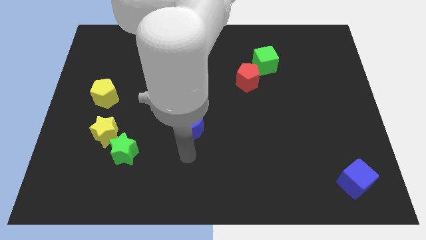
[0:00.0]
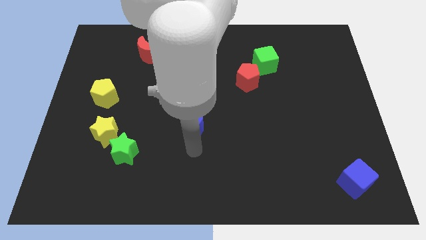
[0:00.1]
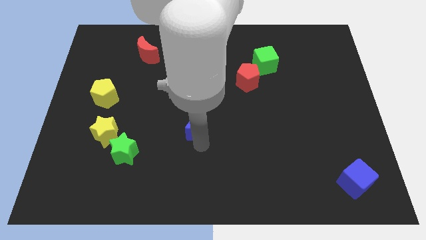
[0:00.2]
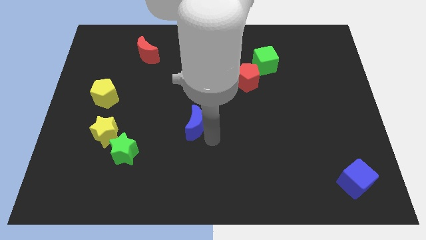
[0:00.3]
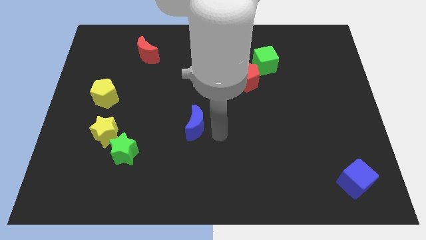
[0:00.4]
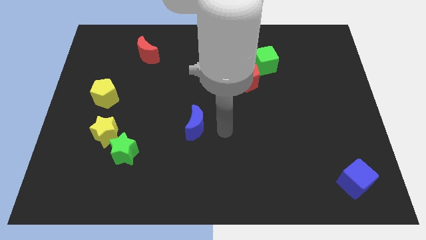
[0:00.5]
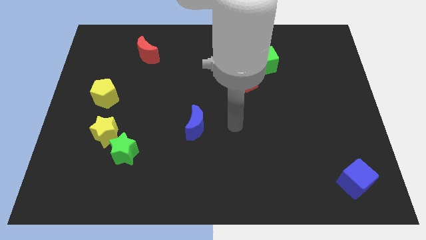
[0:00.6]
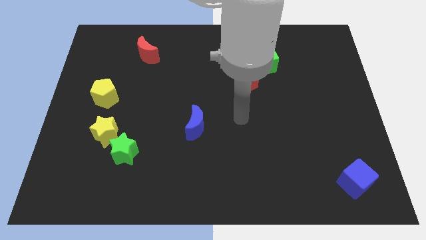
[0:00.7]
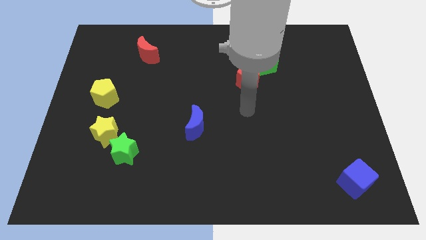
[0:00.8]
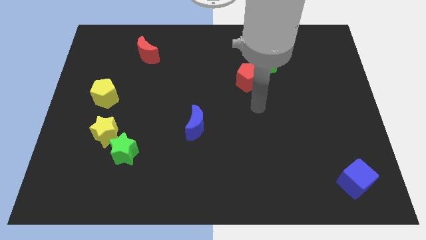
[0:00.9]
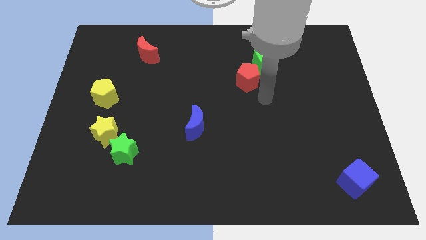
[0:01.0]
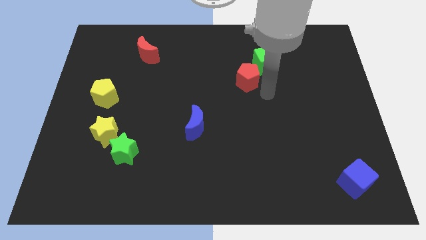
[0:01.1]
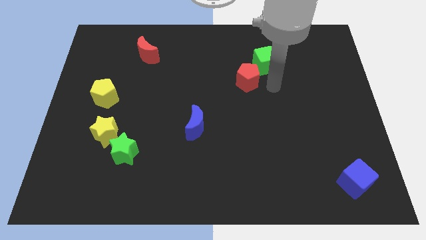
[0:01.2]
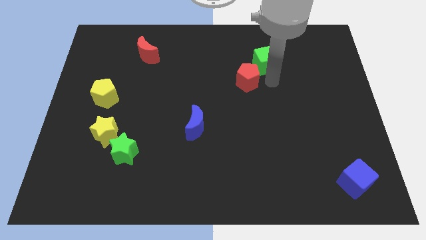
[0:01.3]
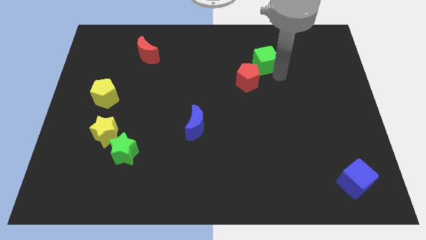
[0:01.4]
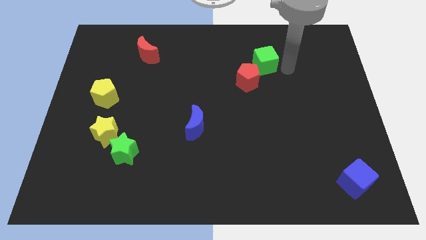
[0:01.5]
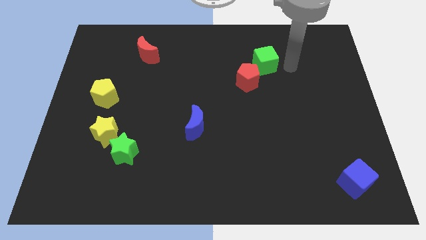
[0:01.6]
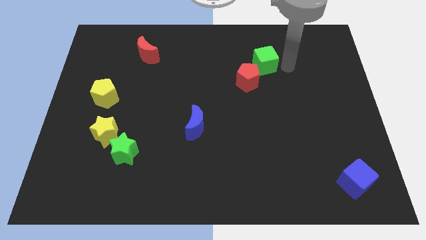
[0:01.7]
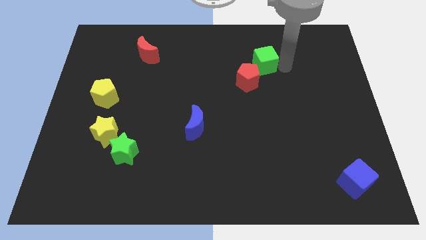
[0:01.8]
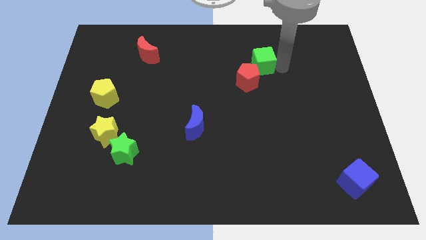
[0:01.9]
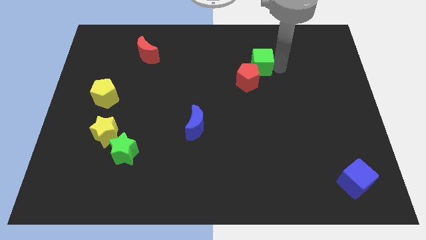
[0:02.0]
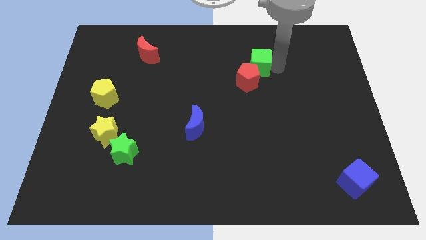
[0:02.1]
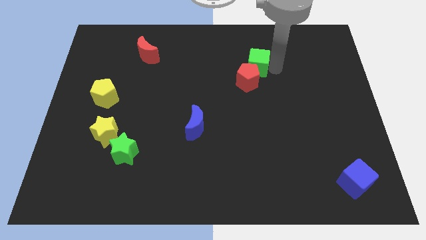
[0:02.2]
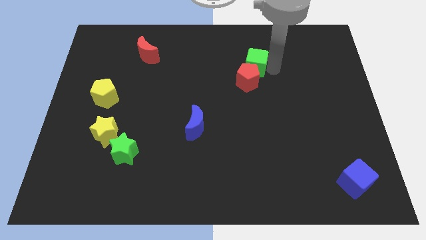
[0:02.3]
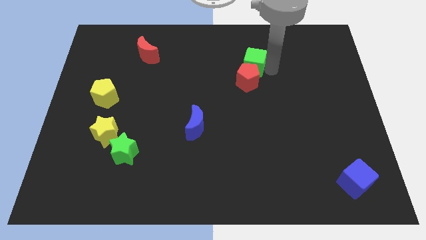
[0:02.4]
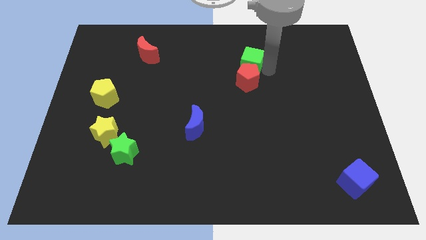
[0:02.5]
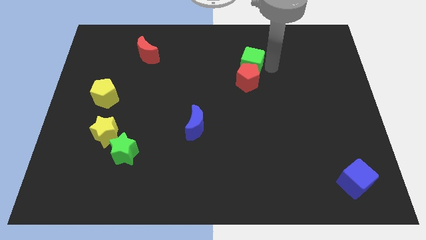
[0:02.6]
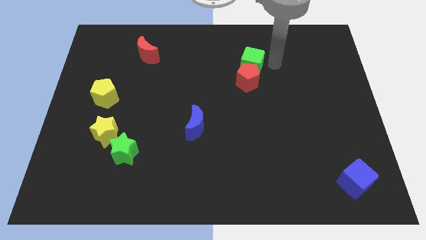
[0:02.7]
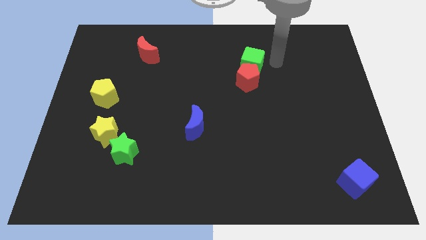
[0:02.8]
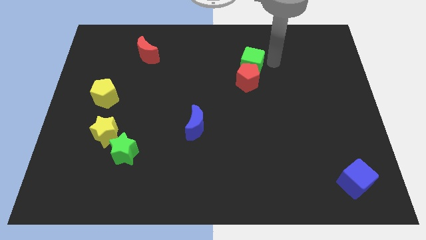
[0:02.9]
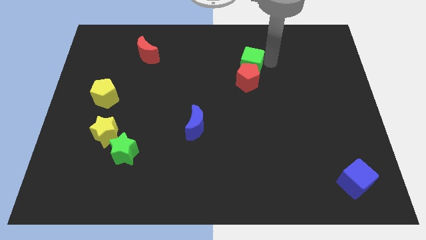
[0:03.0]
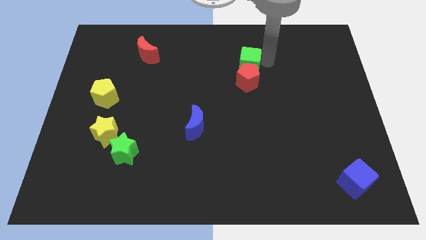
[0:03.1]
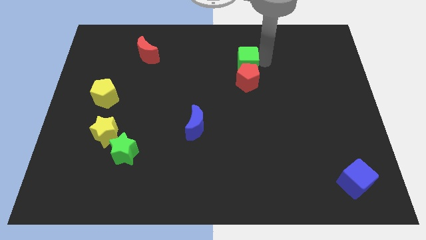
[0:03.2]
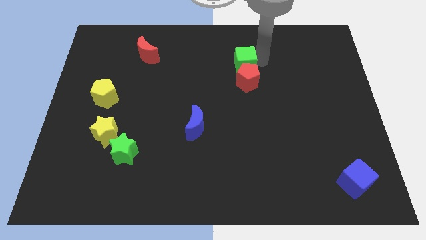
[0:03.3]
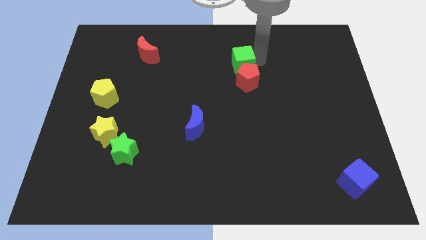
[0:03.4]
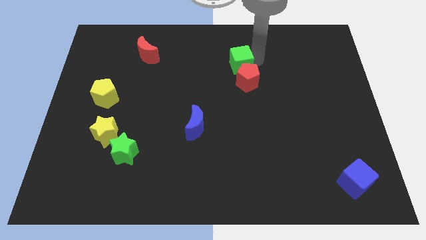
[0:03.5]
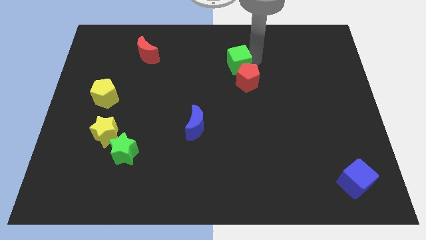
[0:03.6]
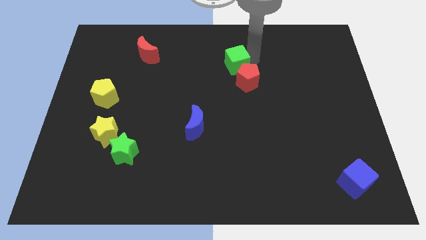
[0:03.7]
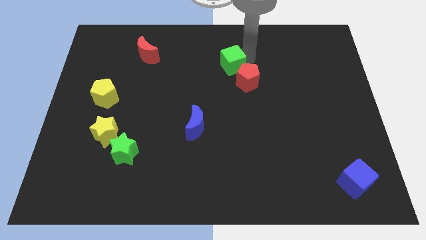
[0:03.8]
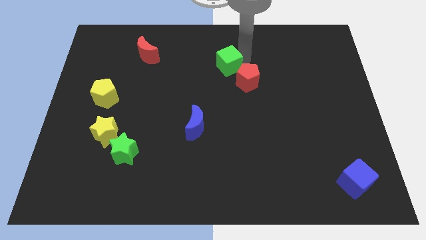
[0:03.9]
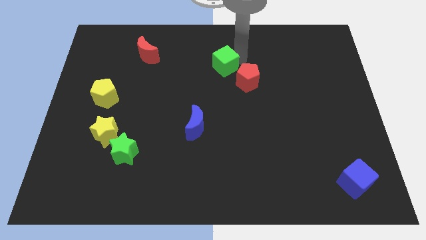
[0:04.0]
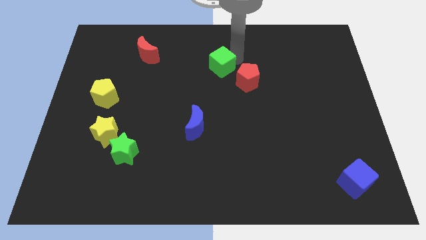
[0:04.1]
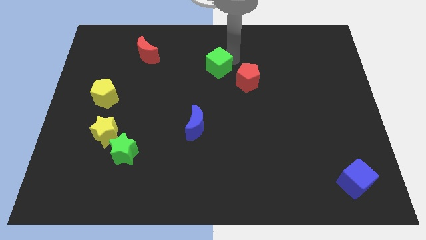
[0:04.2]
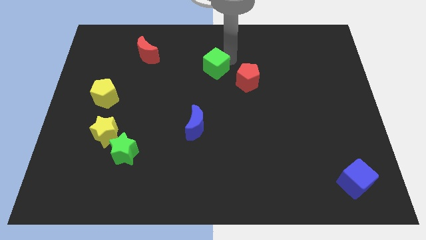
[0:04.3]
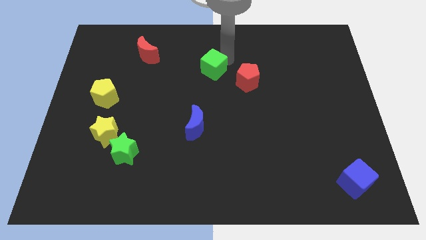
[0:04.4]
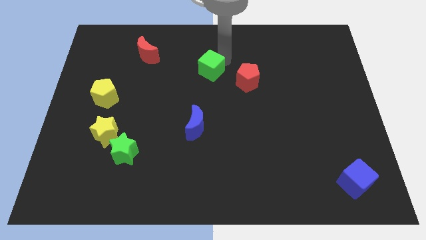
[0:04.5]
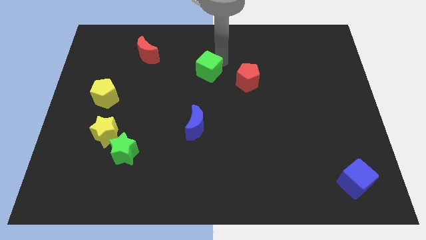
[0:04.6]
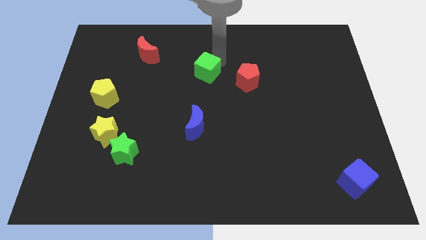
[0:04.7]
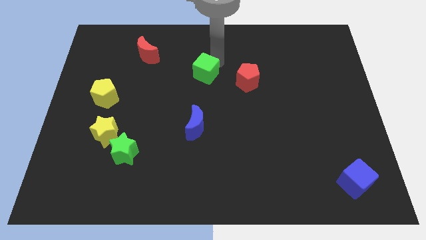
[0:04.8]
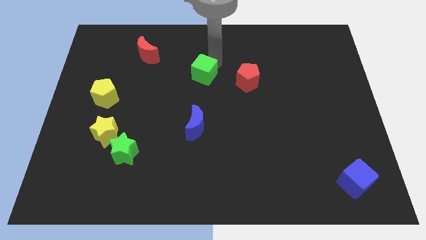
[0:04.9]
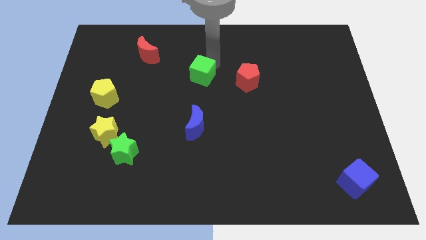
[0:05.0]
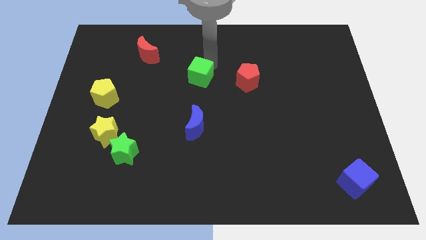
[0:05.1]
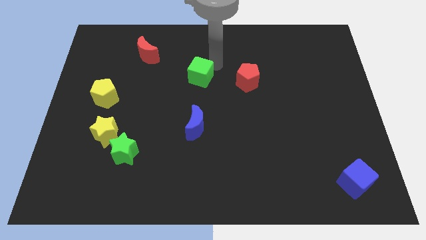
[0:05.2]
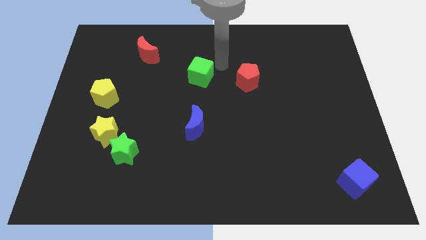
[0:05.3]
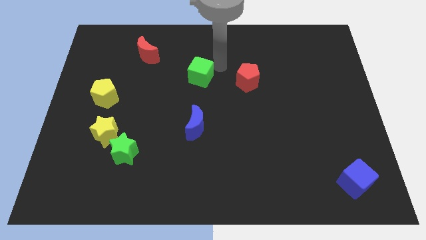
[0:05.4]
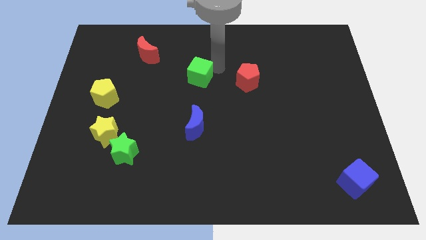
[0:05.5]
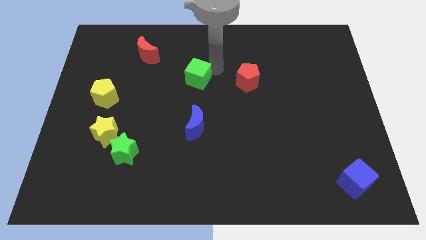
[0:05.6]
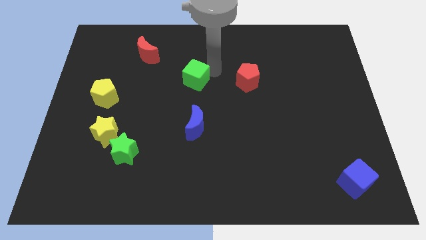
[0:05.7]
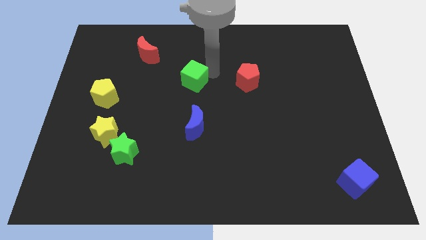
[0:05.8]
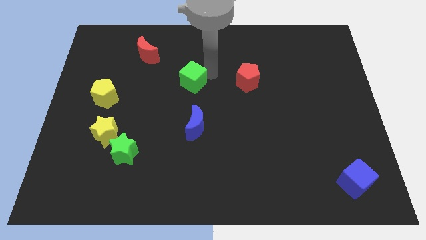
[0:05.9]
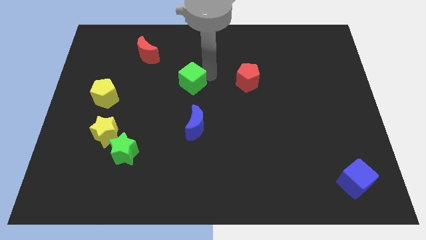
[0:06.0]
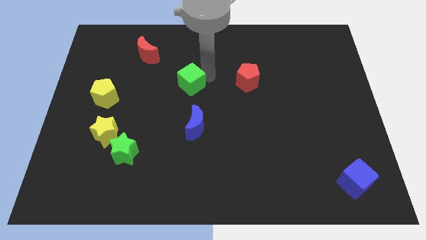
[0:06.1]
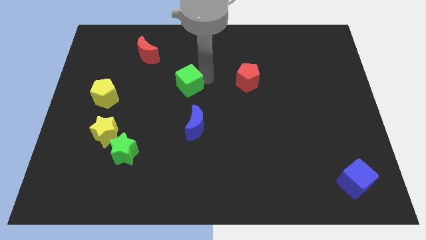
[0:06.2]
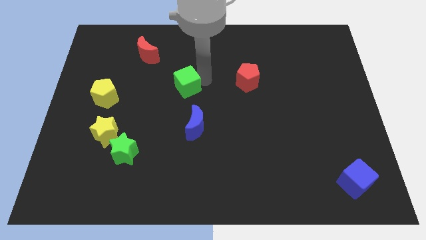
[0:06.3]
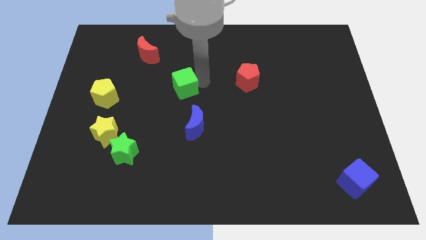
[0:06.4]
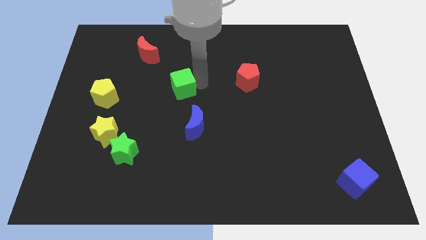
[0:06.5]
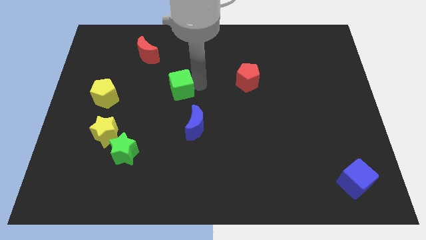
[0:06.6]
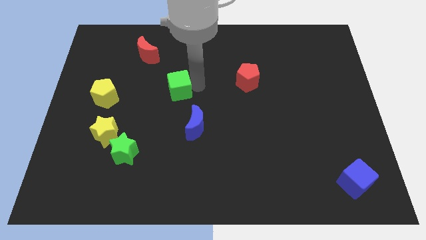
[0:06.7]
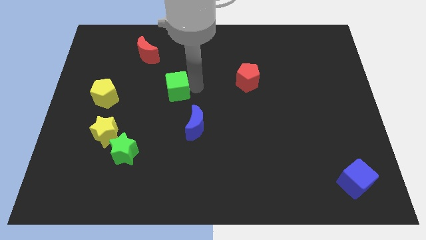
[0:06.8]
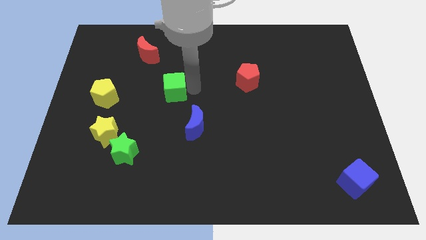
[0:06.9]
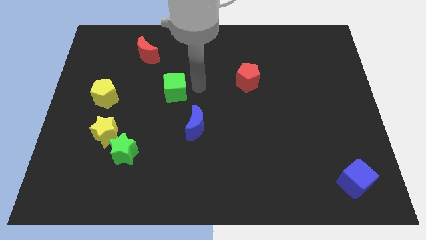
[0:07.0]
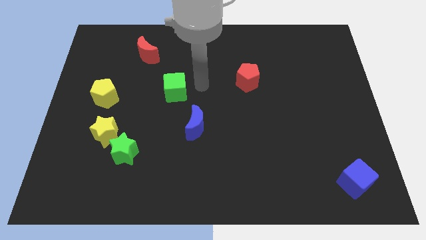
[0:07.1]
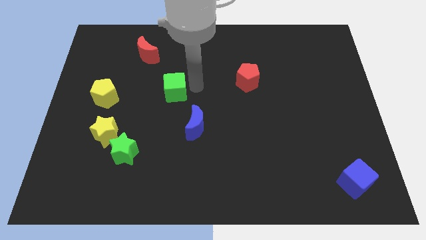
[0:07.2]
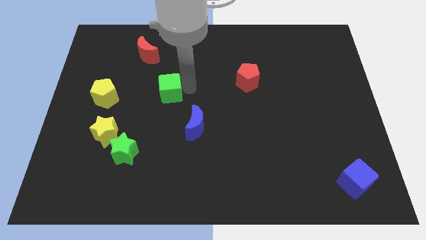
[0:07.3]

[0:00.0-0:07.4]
slide the green cube to the right side of the yellow pentagon
